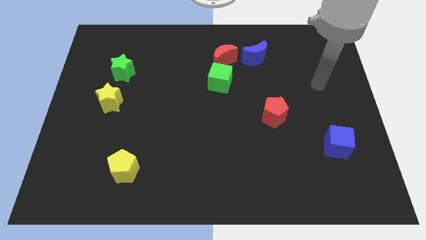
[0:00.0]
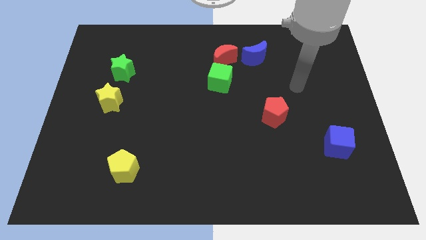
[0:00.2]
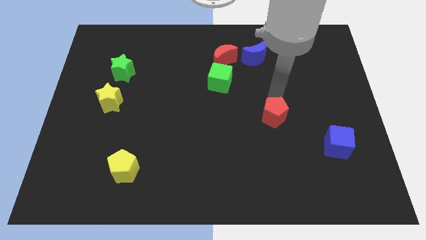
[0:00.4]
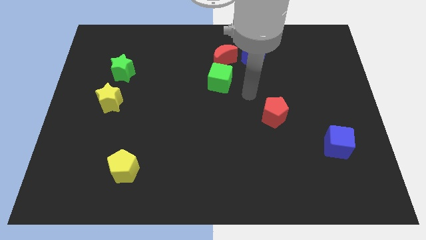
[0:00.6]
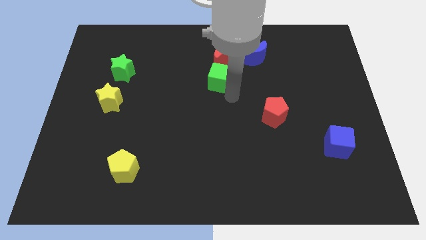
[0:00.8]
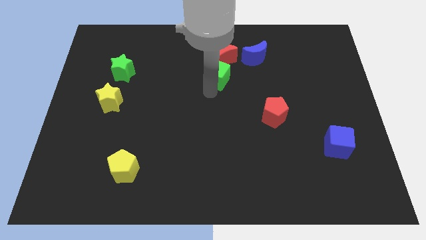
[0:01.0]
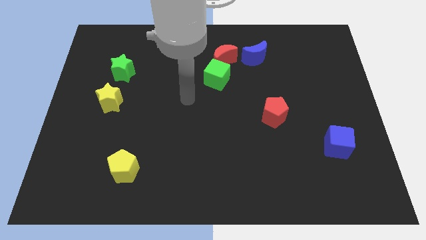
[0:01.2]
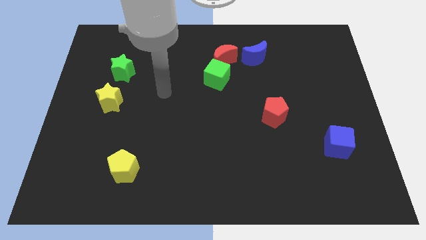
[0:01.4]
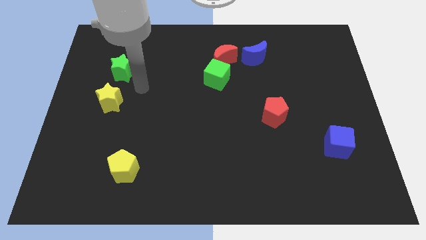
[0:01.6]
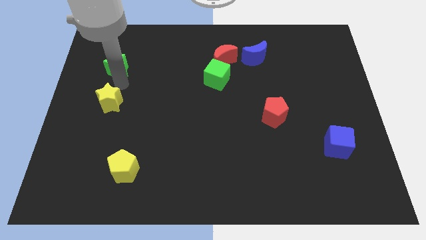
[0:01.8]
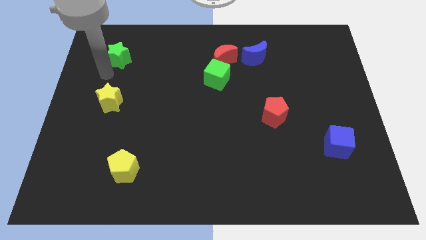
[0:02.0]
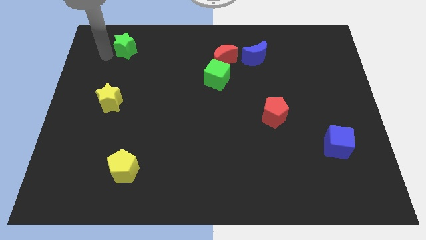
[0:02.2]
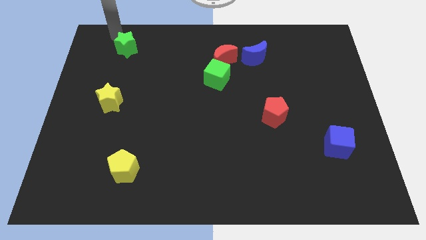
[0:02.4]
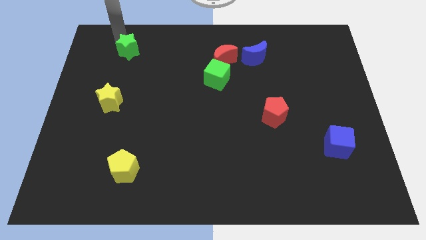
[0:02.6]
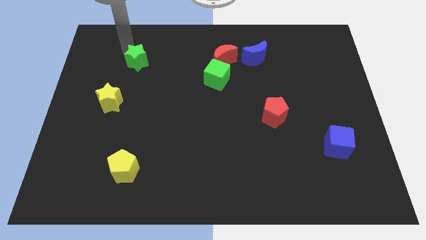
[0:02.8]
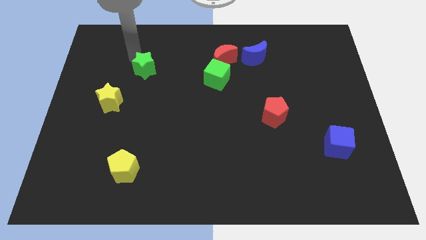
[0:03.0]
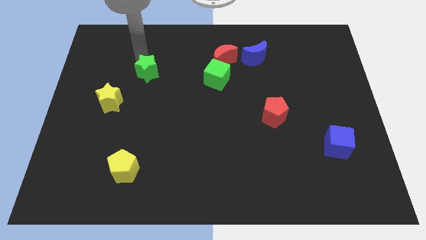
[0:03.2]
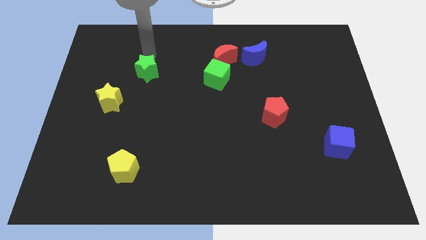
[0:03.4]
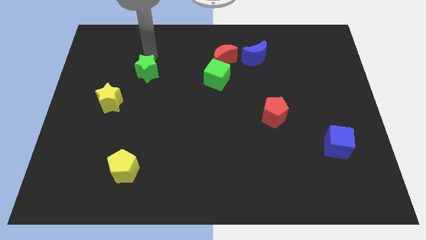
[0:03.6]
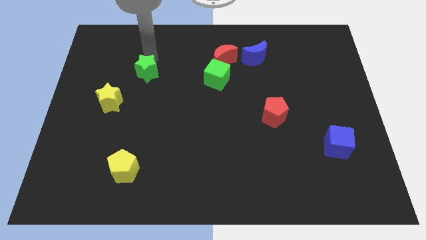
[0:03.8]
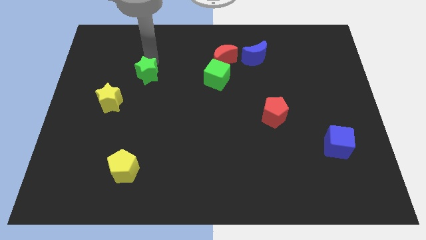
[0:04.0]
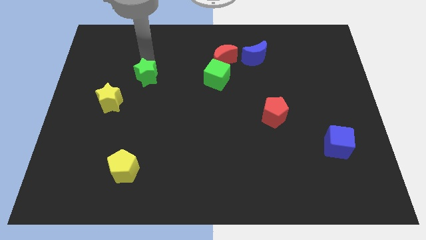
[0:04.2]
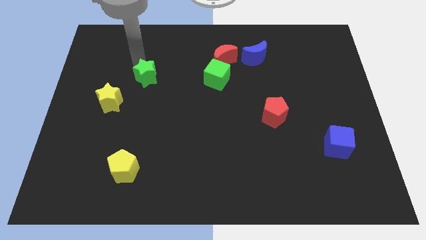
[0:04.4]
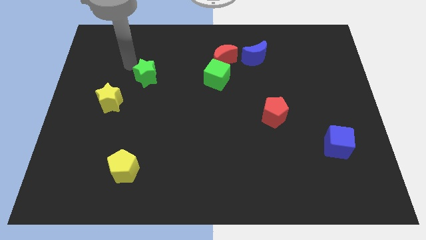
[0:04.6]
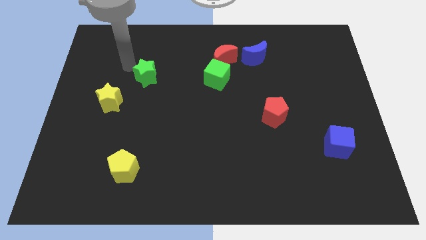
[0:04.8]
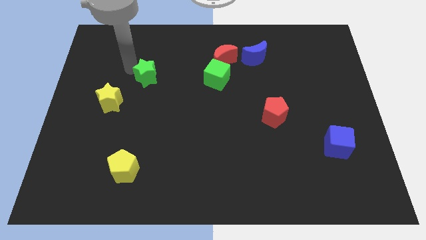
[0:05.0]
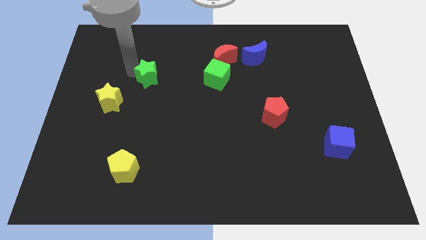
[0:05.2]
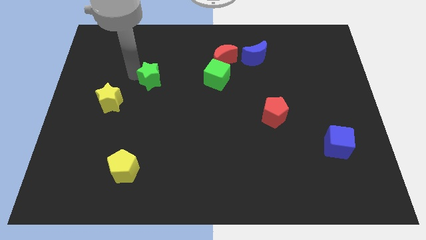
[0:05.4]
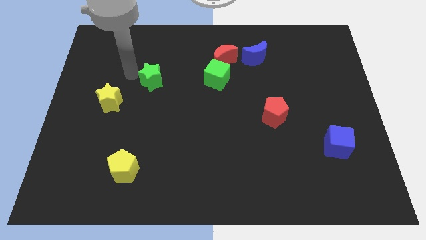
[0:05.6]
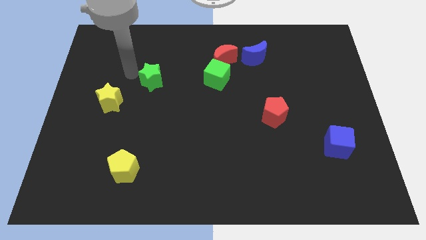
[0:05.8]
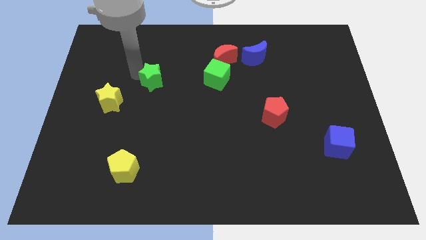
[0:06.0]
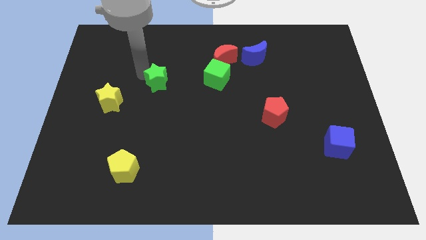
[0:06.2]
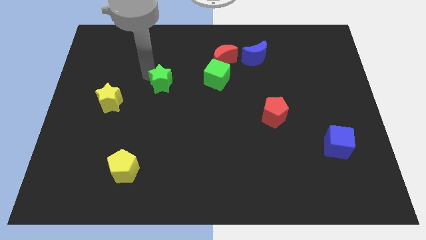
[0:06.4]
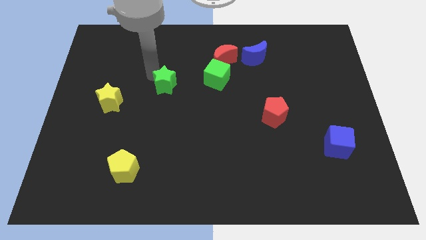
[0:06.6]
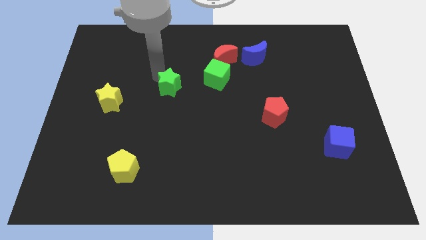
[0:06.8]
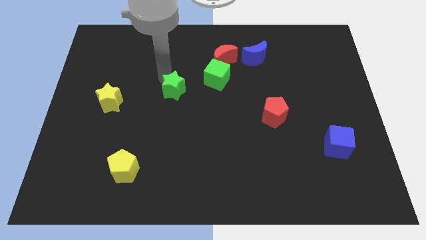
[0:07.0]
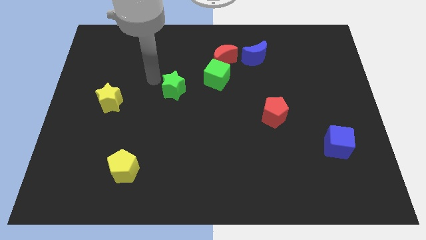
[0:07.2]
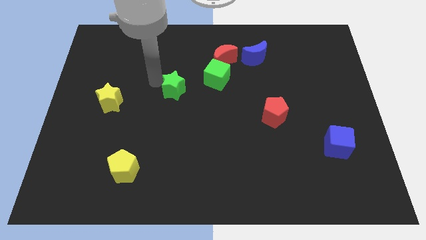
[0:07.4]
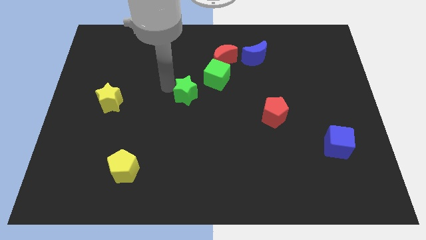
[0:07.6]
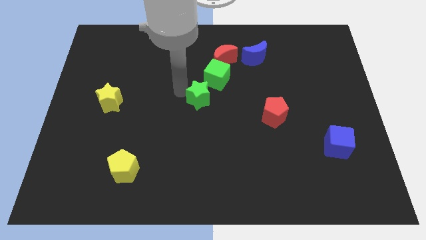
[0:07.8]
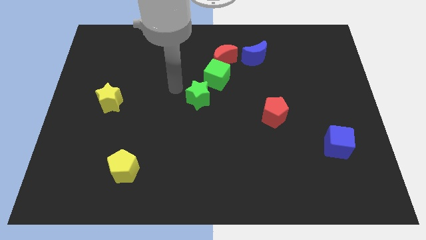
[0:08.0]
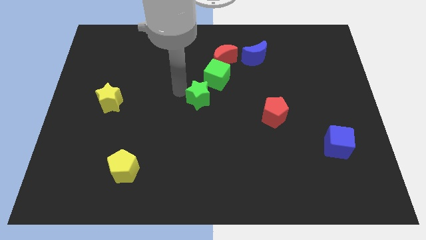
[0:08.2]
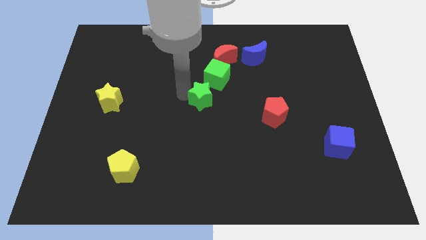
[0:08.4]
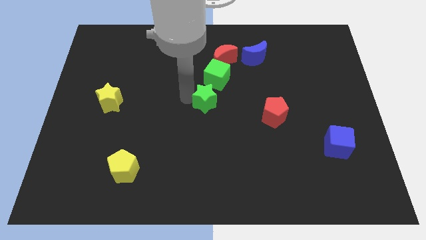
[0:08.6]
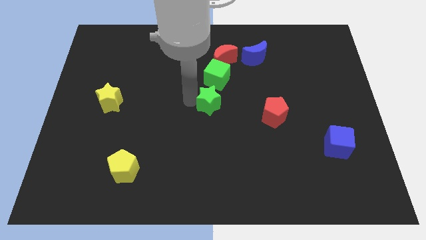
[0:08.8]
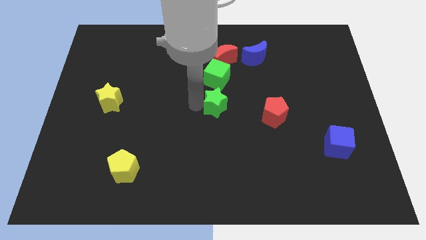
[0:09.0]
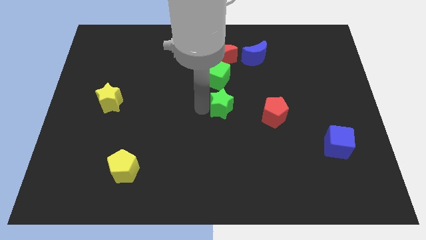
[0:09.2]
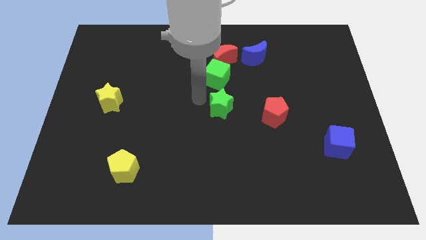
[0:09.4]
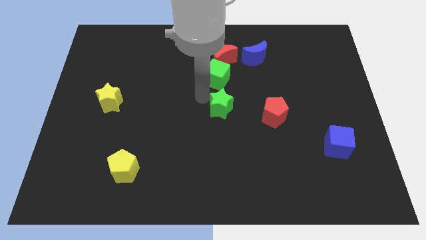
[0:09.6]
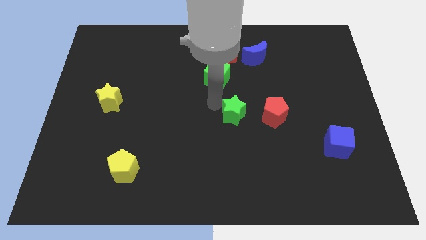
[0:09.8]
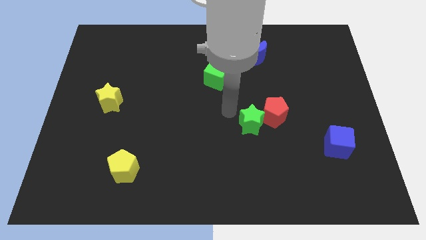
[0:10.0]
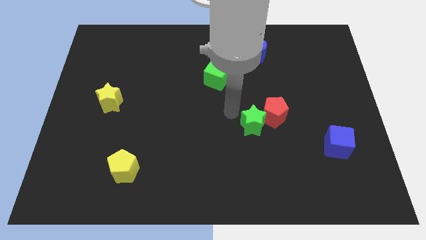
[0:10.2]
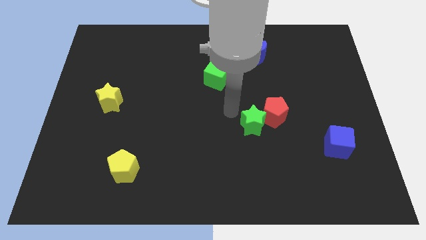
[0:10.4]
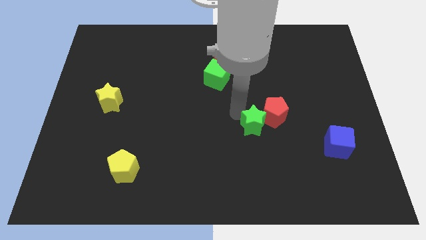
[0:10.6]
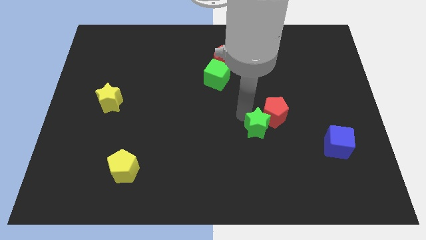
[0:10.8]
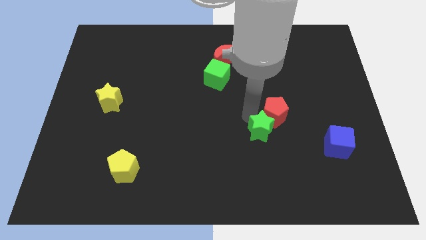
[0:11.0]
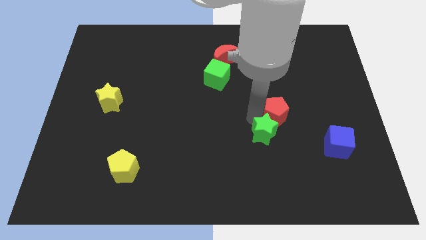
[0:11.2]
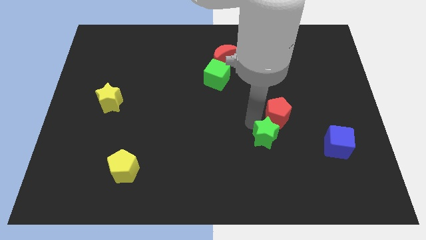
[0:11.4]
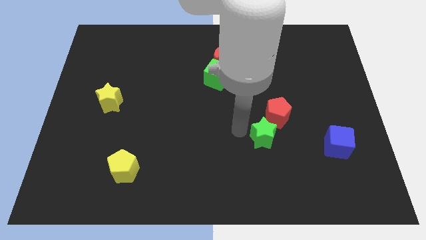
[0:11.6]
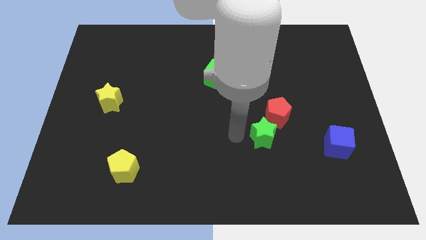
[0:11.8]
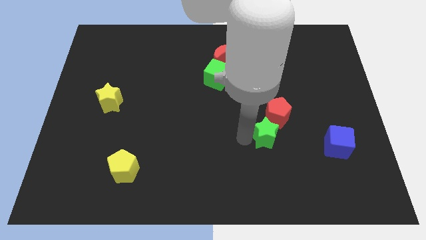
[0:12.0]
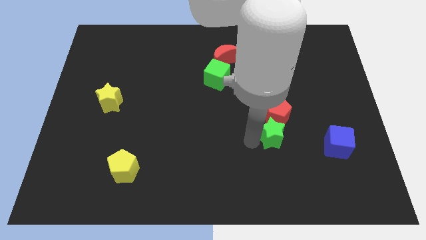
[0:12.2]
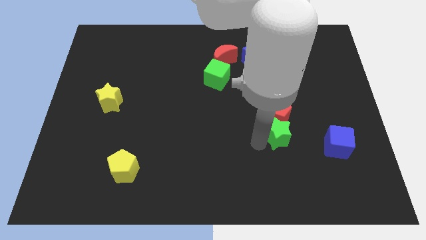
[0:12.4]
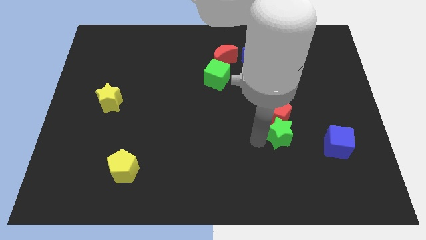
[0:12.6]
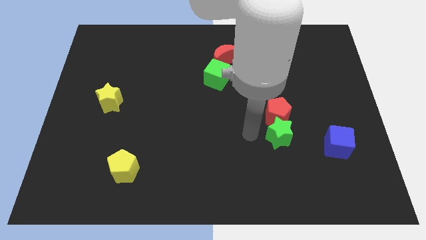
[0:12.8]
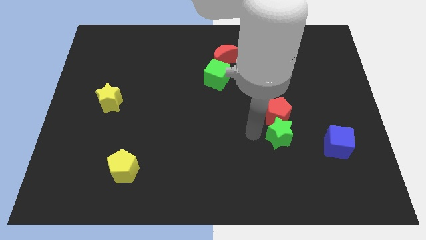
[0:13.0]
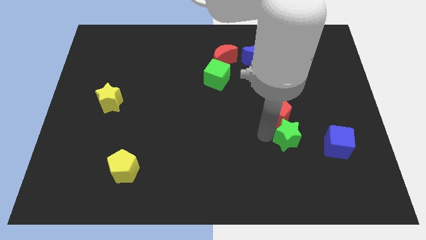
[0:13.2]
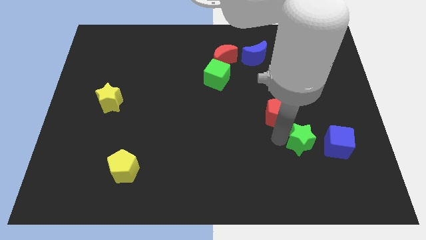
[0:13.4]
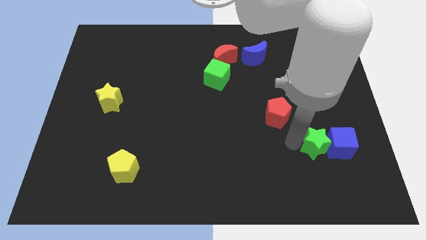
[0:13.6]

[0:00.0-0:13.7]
put the green star next to the blue cube

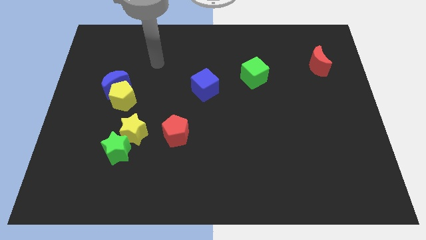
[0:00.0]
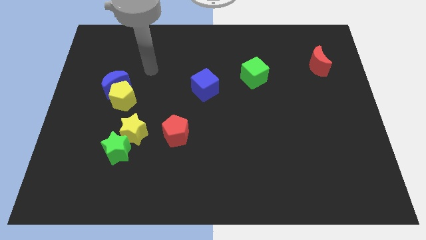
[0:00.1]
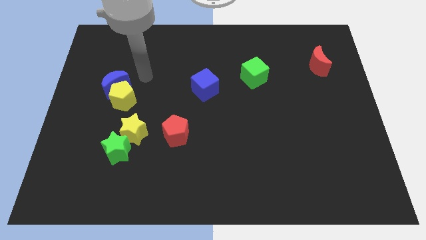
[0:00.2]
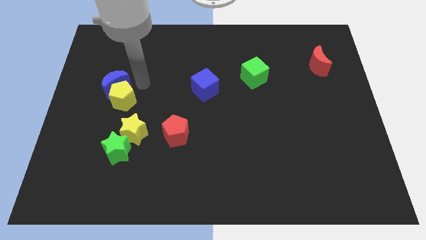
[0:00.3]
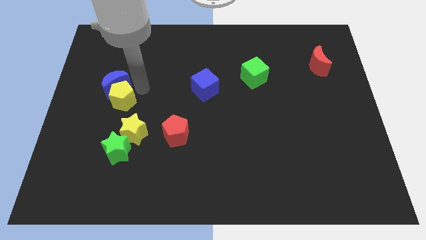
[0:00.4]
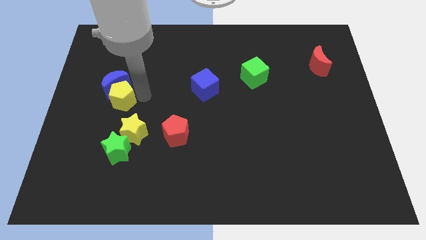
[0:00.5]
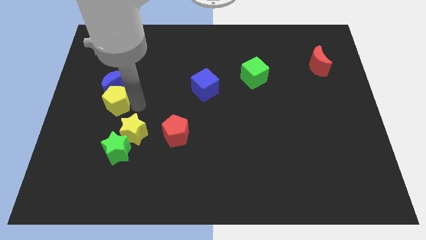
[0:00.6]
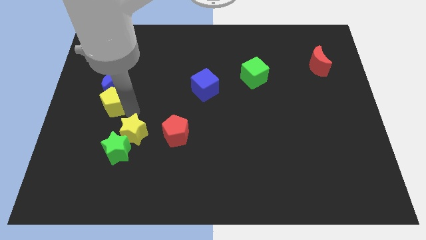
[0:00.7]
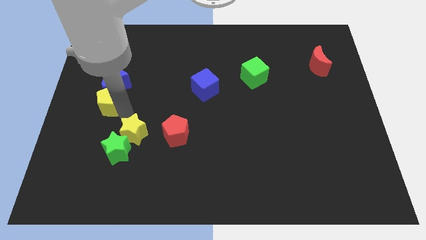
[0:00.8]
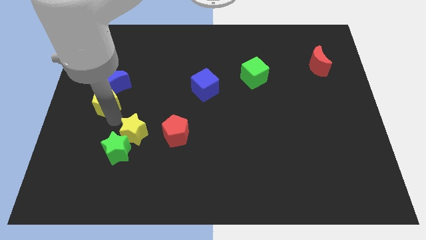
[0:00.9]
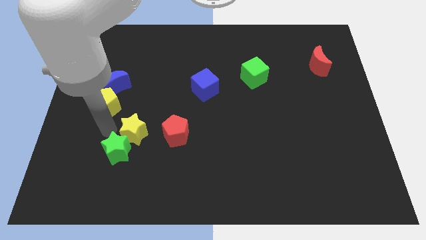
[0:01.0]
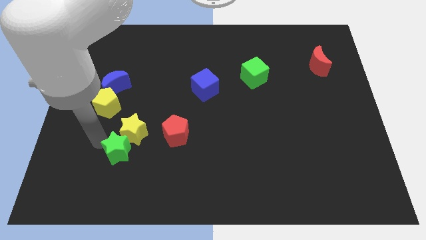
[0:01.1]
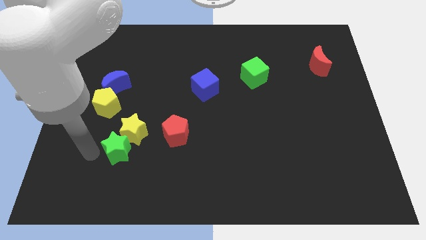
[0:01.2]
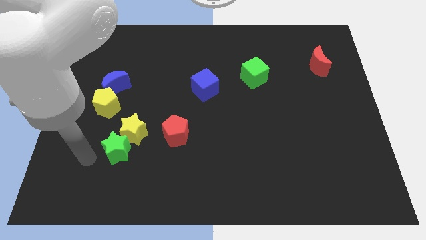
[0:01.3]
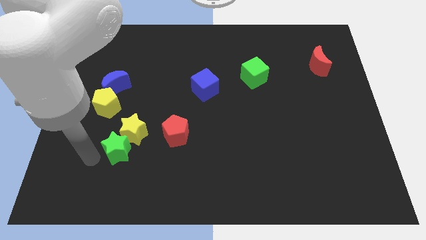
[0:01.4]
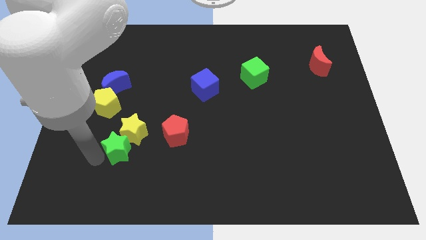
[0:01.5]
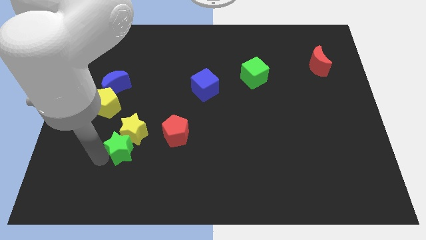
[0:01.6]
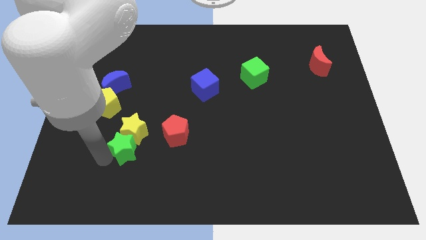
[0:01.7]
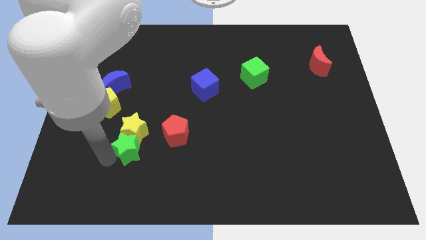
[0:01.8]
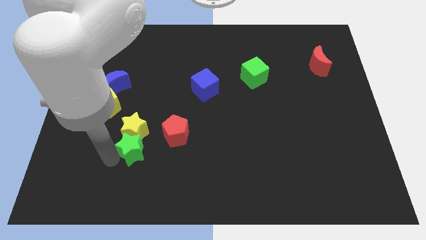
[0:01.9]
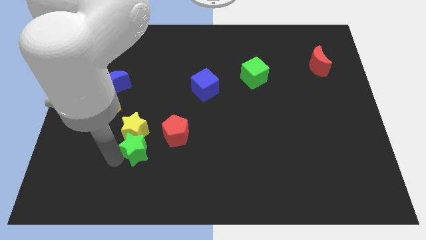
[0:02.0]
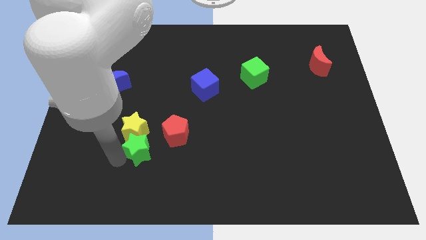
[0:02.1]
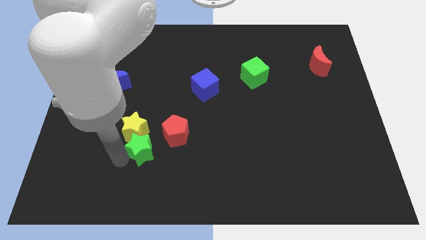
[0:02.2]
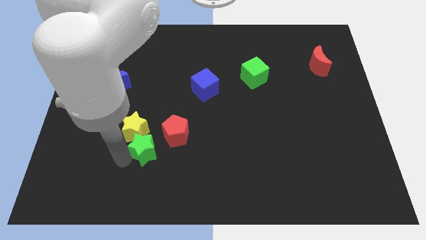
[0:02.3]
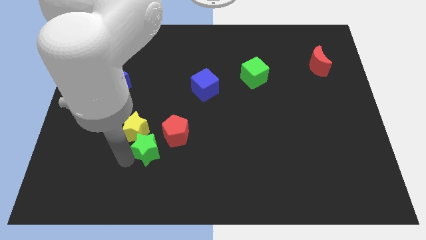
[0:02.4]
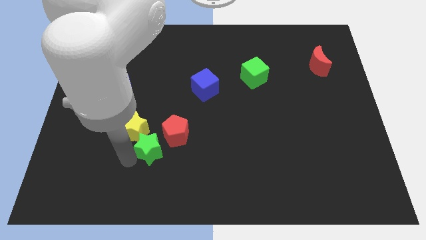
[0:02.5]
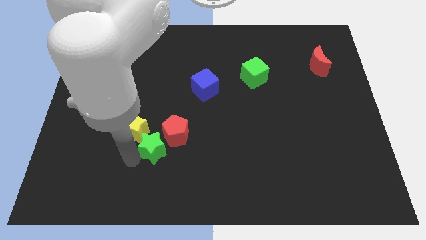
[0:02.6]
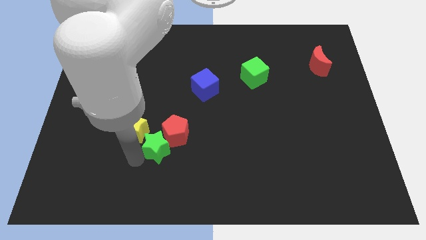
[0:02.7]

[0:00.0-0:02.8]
put the green star towards the red pentagon
